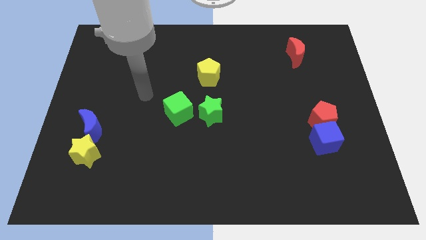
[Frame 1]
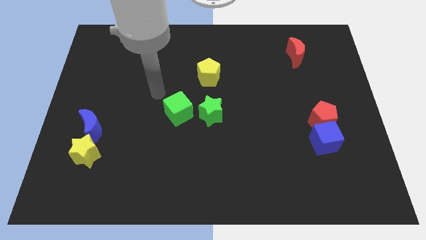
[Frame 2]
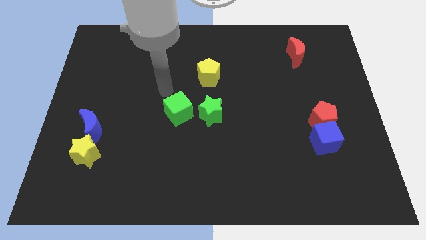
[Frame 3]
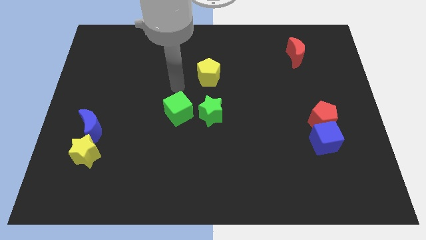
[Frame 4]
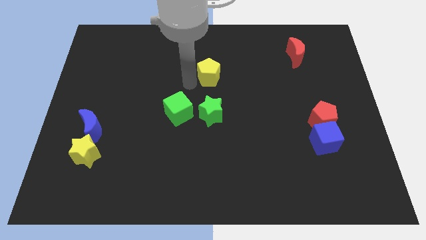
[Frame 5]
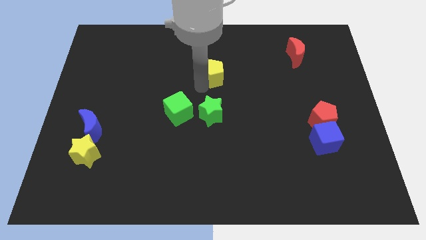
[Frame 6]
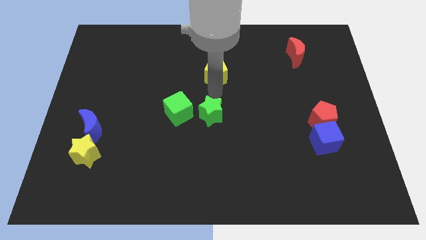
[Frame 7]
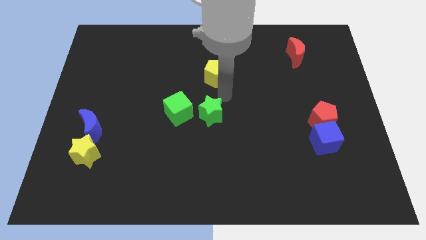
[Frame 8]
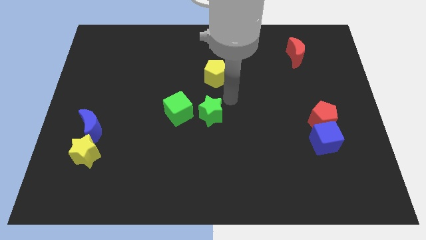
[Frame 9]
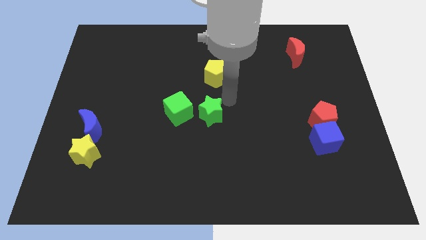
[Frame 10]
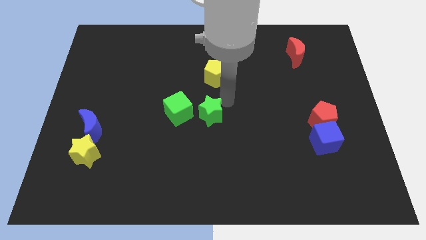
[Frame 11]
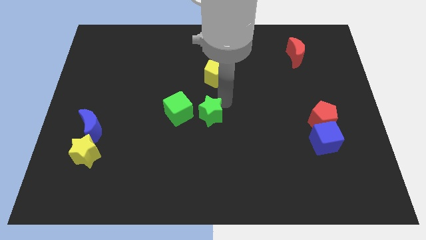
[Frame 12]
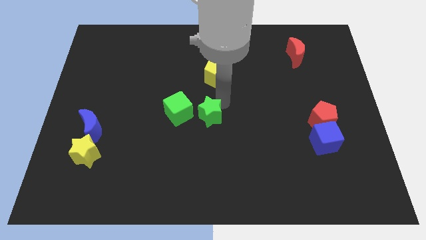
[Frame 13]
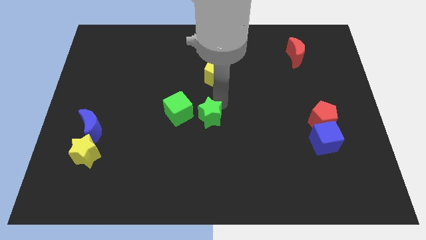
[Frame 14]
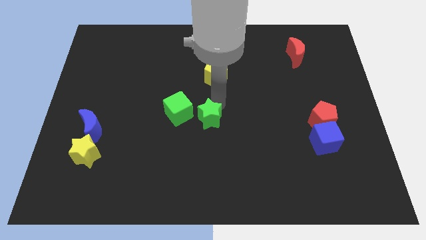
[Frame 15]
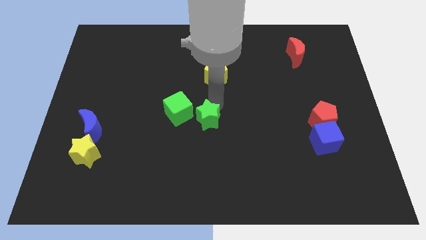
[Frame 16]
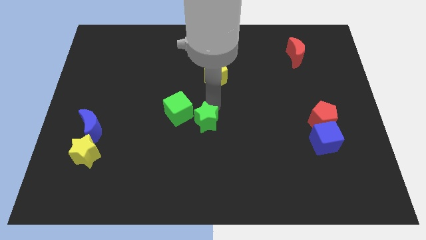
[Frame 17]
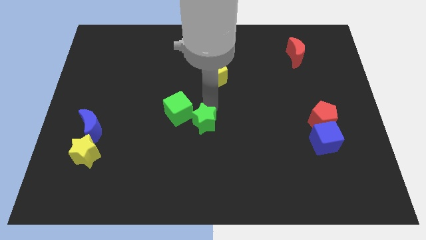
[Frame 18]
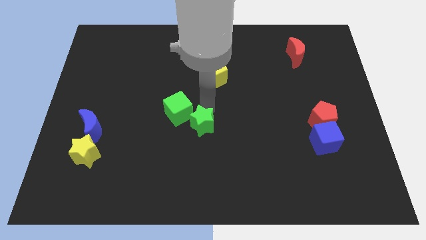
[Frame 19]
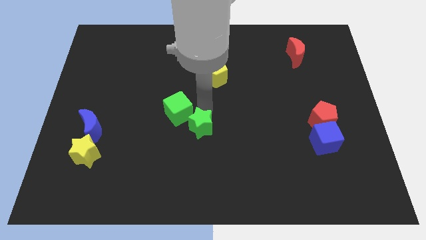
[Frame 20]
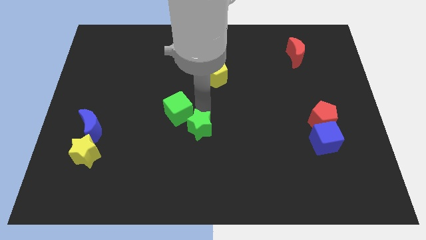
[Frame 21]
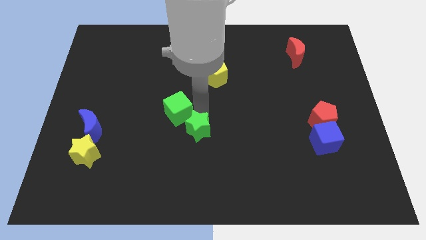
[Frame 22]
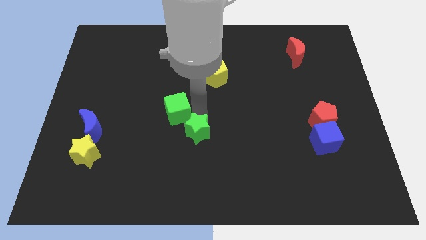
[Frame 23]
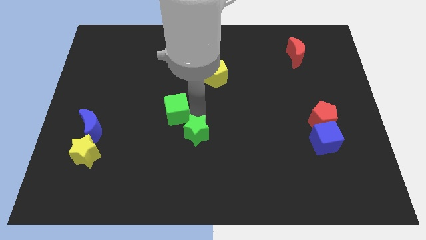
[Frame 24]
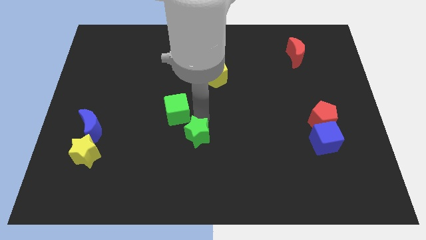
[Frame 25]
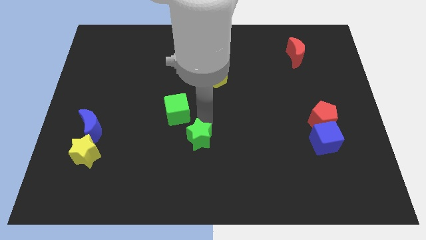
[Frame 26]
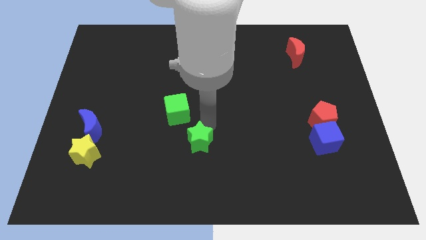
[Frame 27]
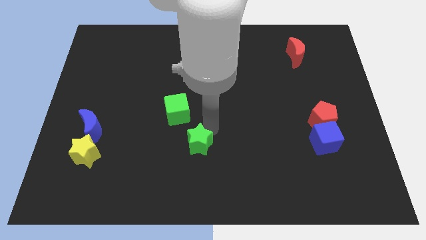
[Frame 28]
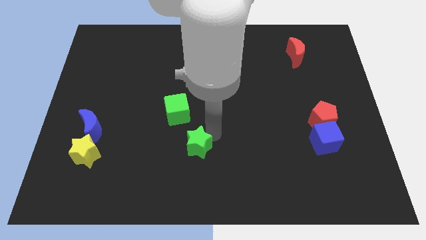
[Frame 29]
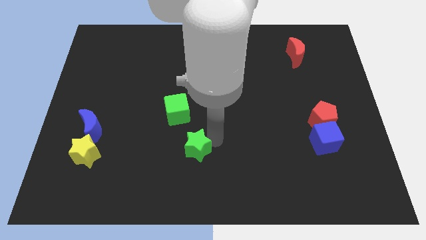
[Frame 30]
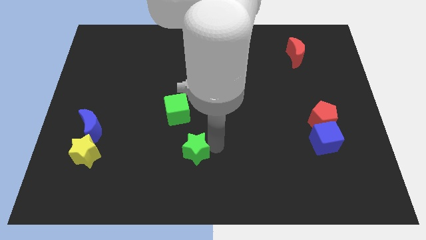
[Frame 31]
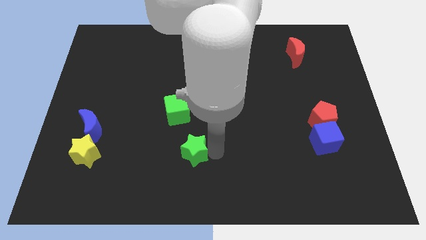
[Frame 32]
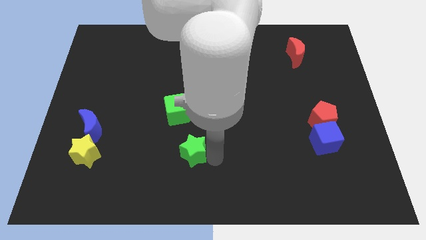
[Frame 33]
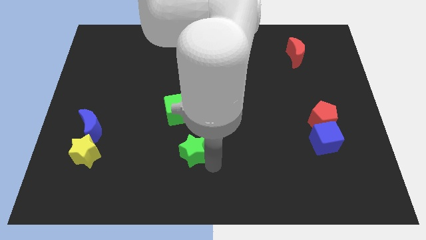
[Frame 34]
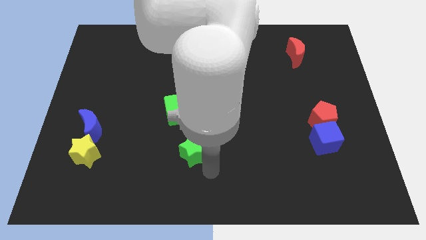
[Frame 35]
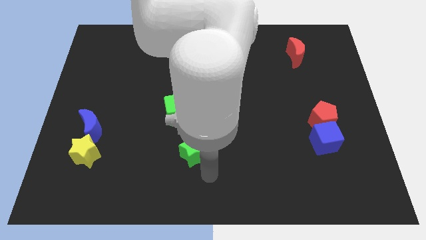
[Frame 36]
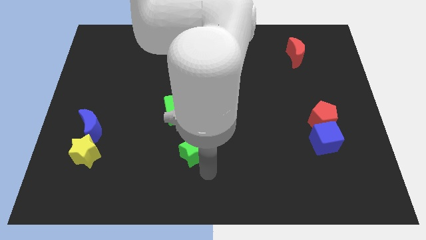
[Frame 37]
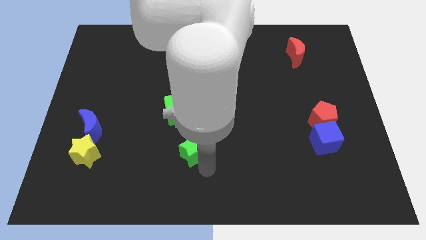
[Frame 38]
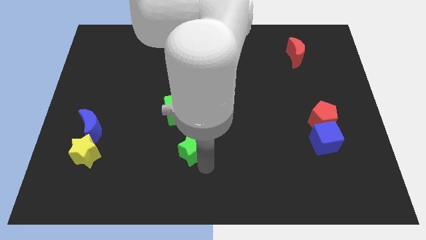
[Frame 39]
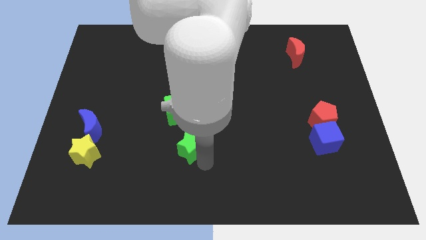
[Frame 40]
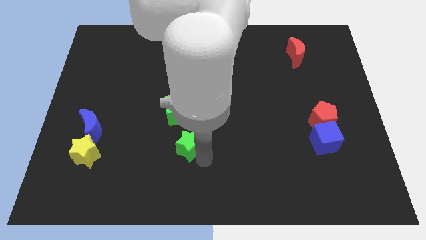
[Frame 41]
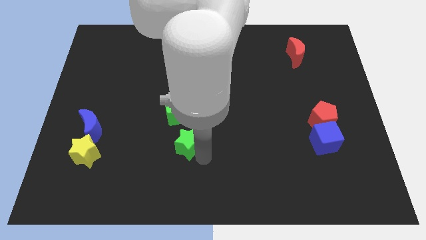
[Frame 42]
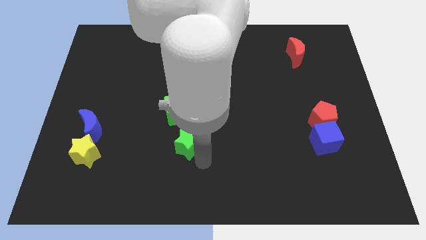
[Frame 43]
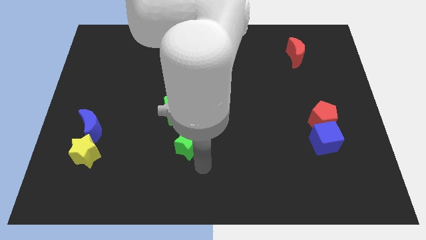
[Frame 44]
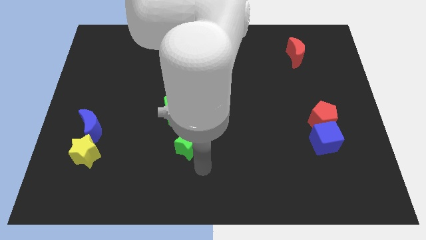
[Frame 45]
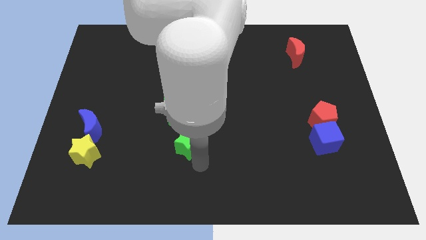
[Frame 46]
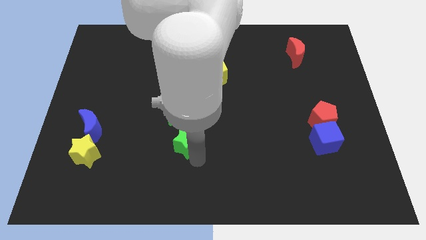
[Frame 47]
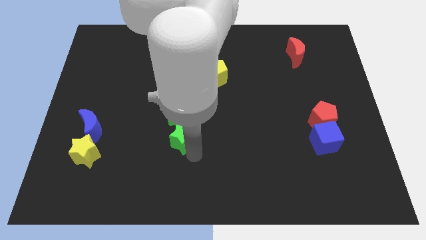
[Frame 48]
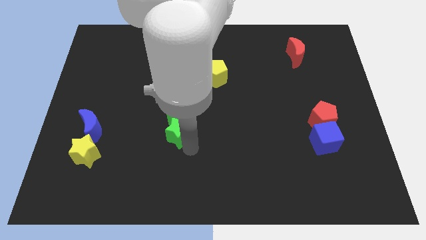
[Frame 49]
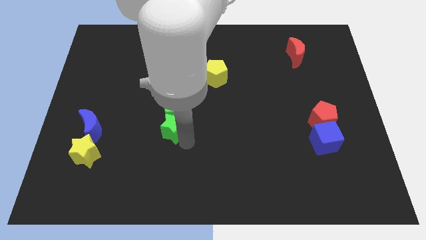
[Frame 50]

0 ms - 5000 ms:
slide the green star slightly left

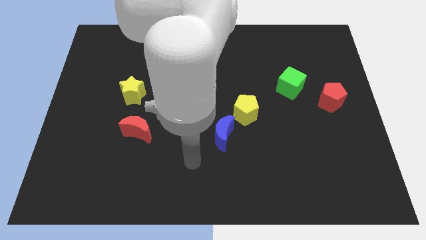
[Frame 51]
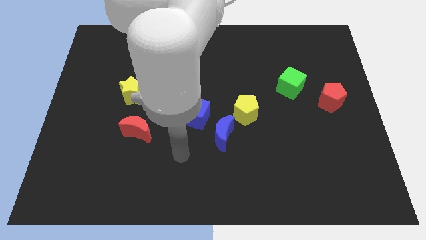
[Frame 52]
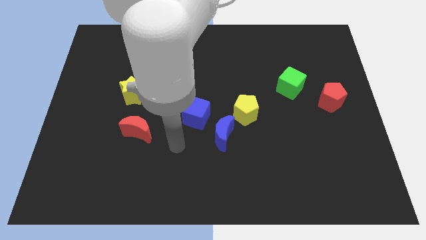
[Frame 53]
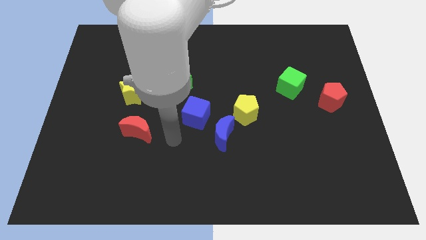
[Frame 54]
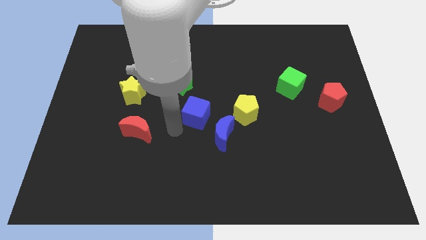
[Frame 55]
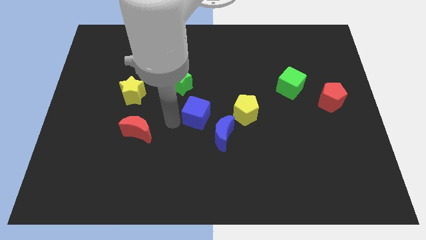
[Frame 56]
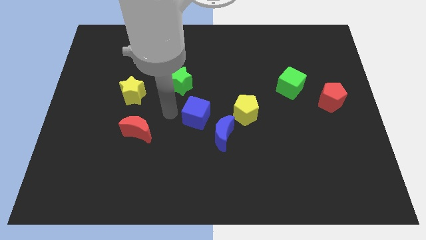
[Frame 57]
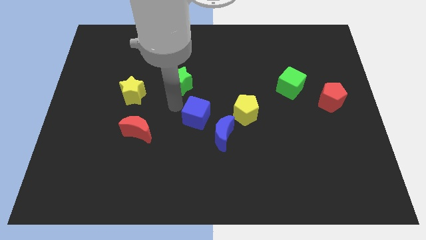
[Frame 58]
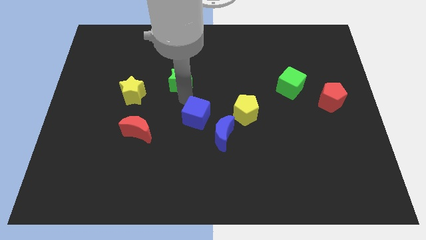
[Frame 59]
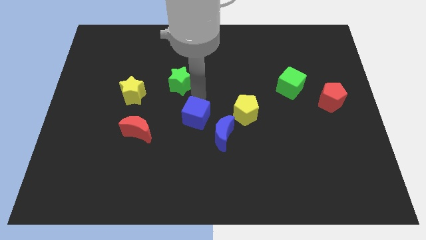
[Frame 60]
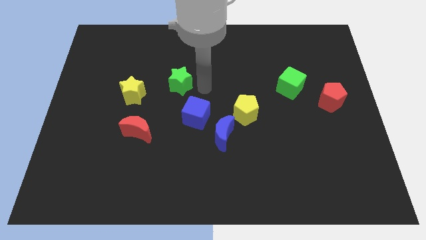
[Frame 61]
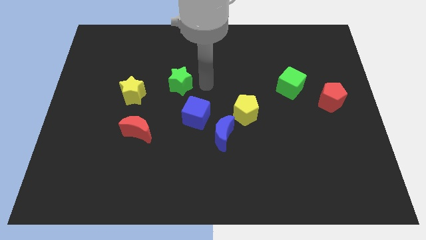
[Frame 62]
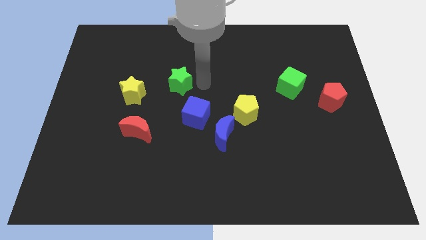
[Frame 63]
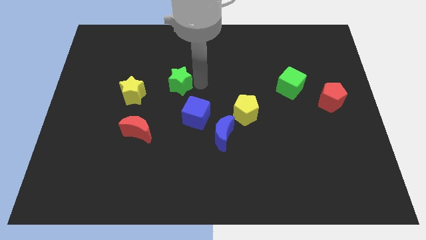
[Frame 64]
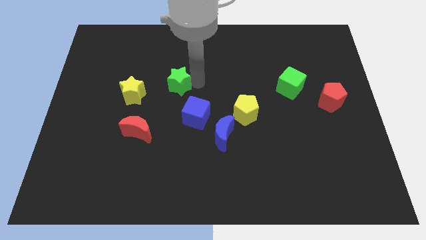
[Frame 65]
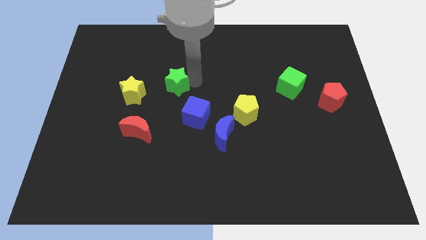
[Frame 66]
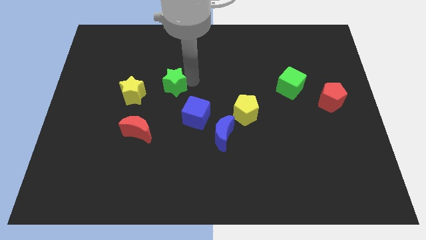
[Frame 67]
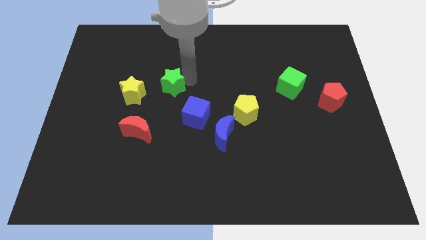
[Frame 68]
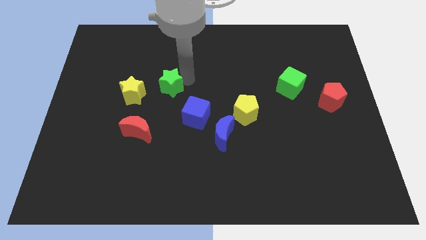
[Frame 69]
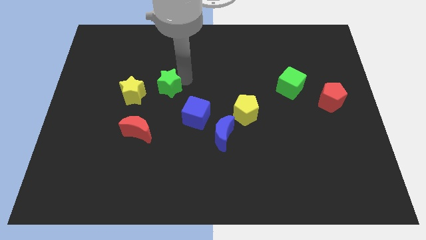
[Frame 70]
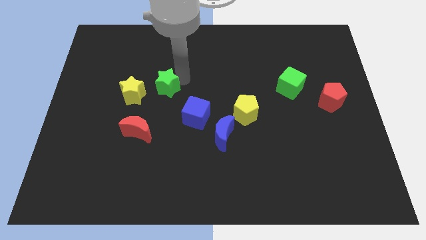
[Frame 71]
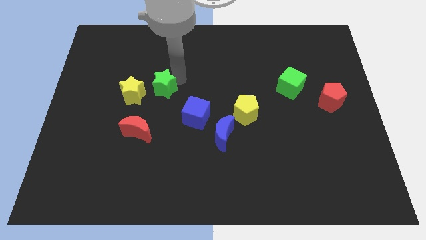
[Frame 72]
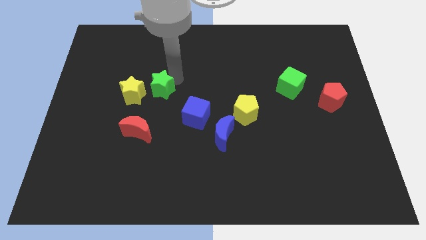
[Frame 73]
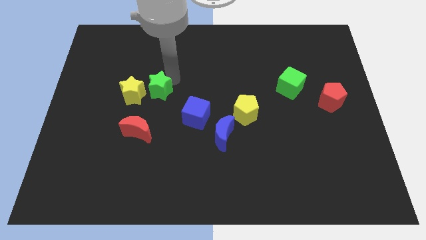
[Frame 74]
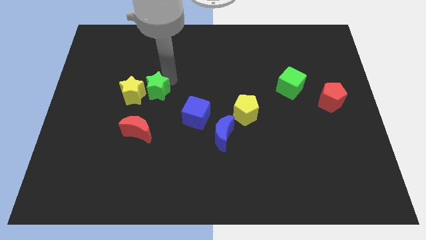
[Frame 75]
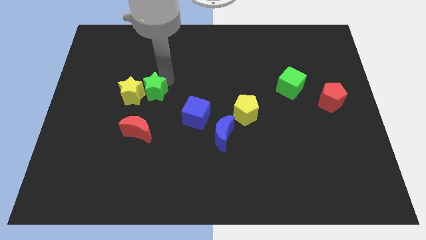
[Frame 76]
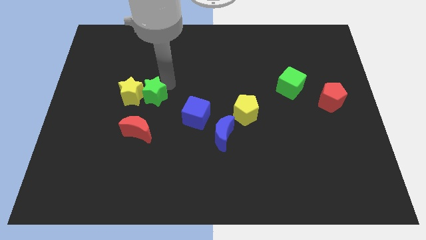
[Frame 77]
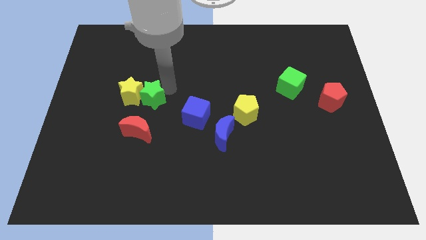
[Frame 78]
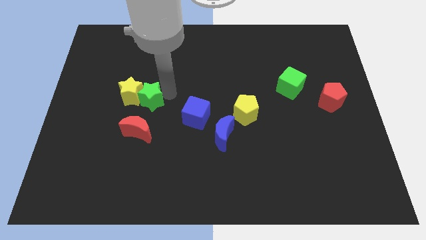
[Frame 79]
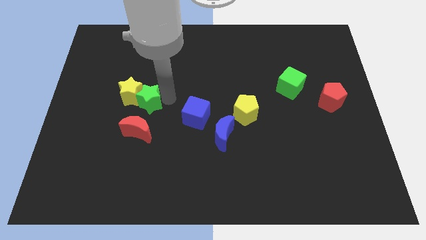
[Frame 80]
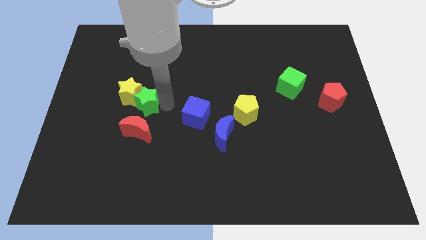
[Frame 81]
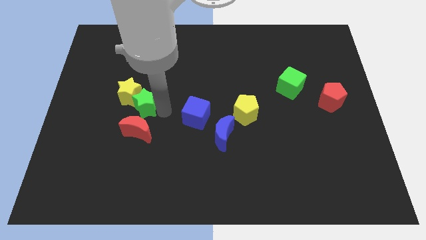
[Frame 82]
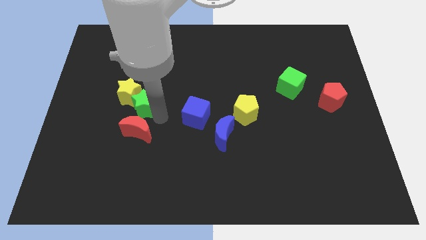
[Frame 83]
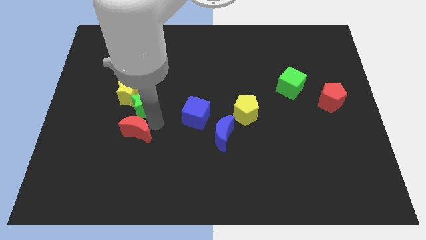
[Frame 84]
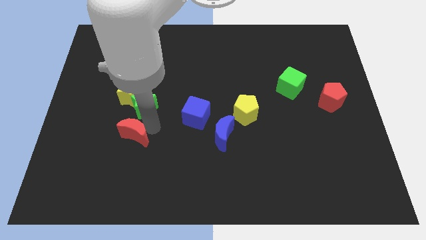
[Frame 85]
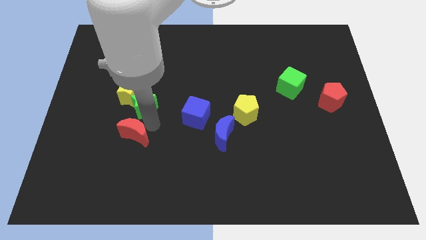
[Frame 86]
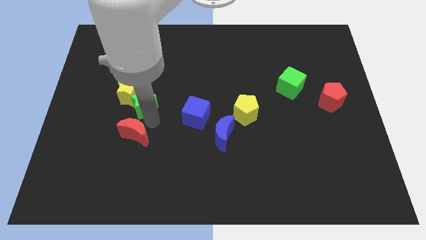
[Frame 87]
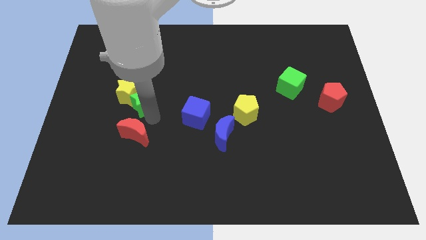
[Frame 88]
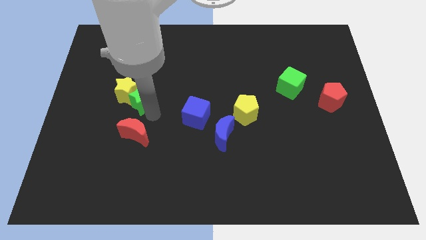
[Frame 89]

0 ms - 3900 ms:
move the green star to the left slightly
